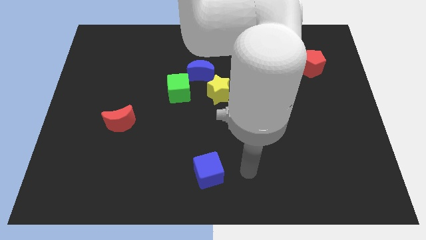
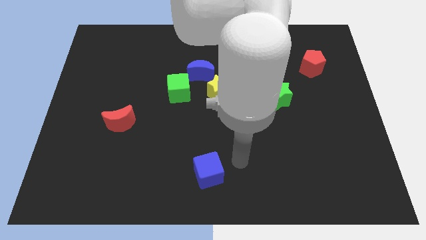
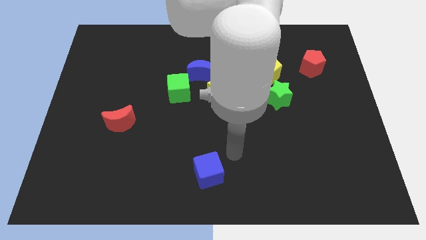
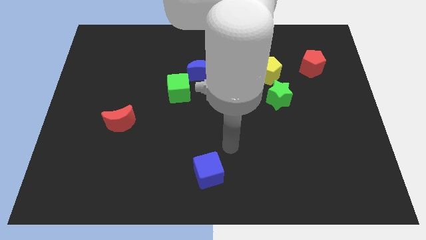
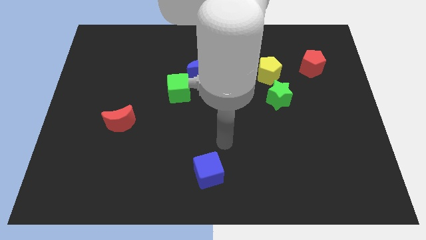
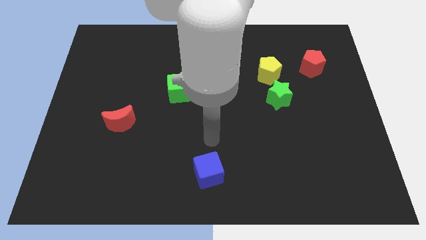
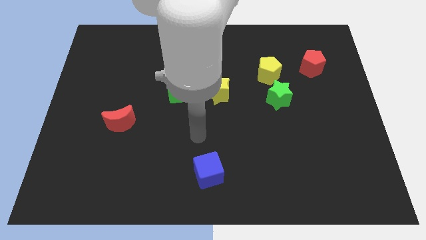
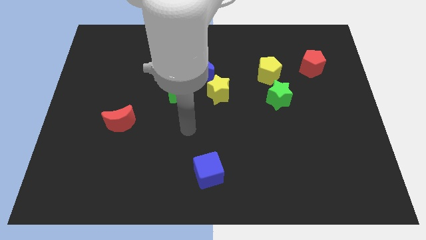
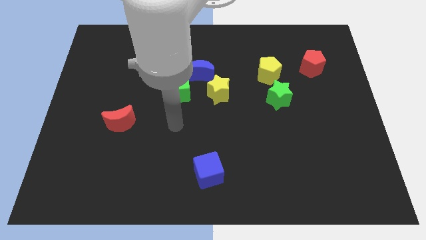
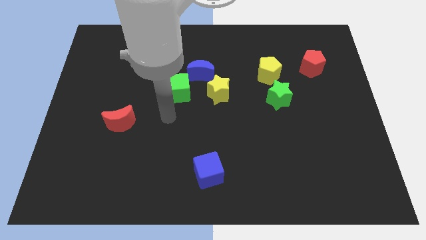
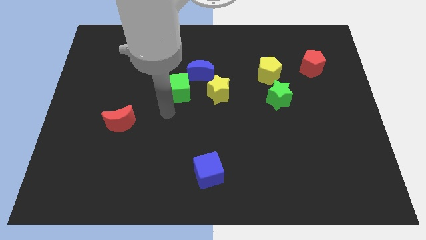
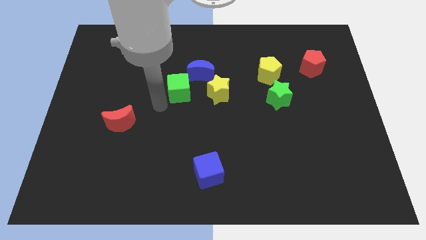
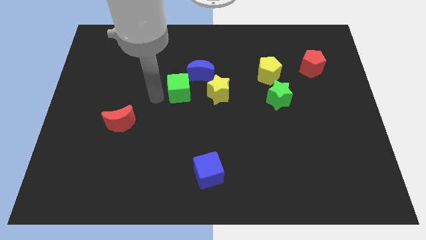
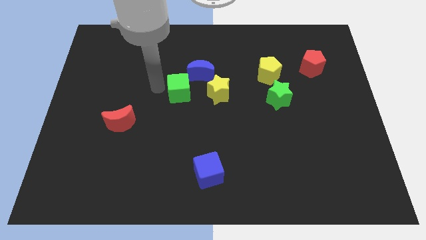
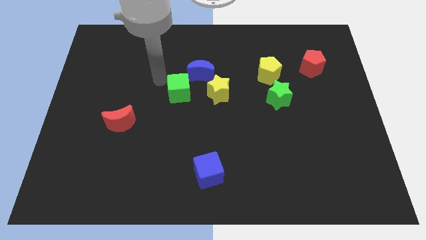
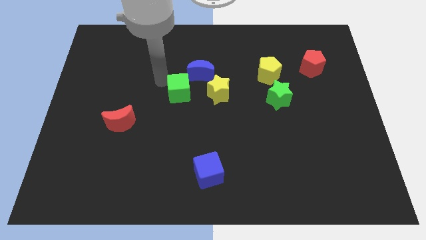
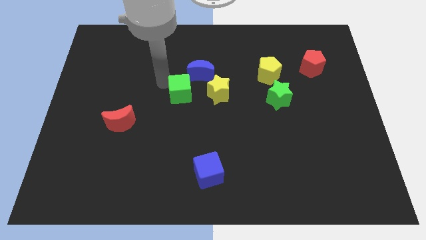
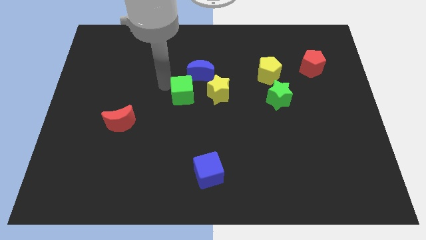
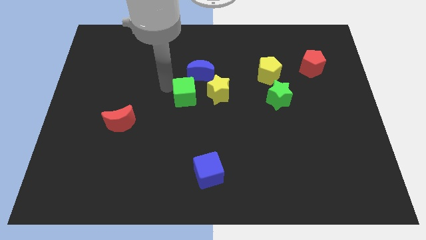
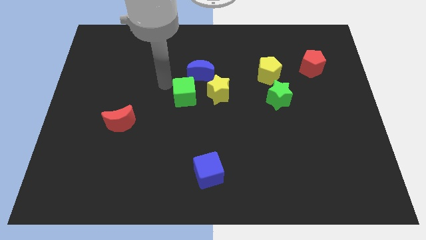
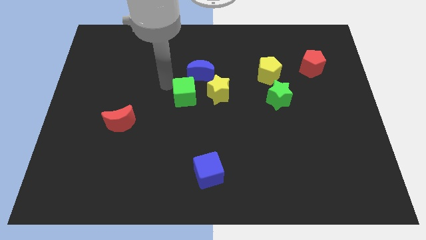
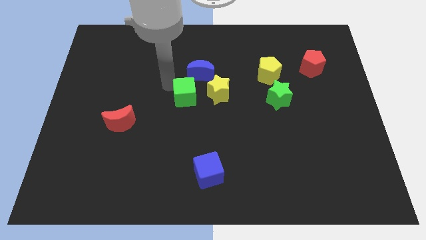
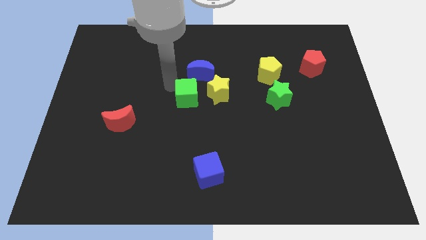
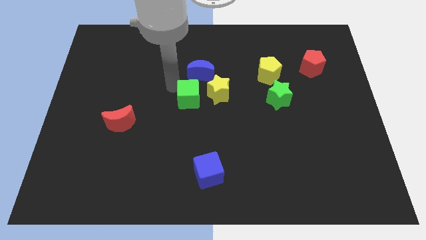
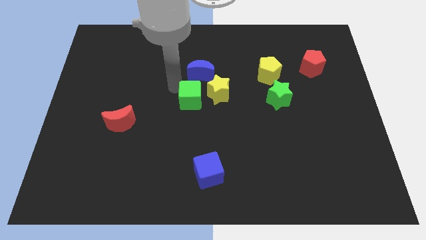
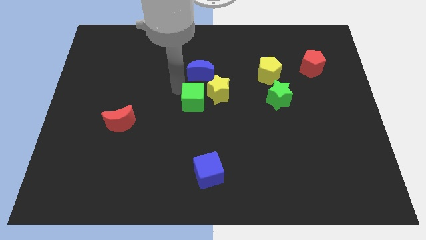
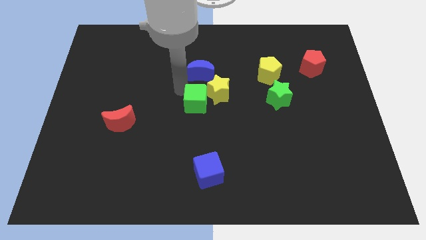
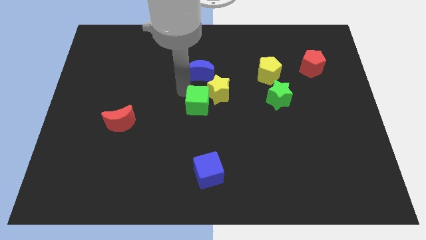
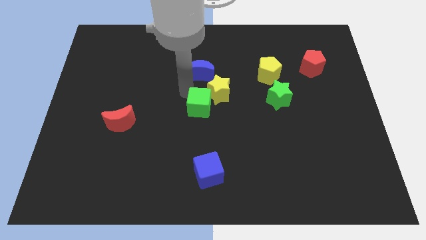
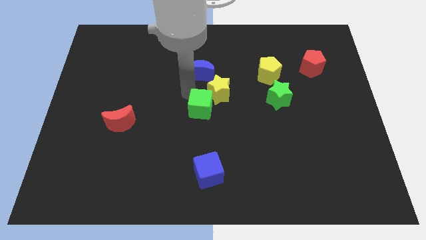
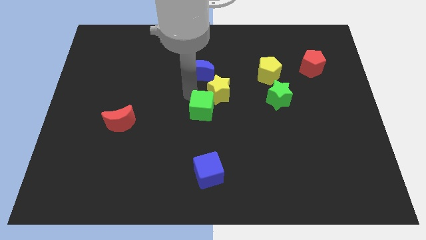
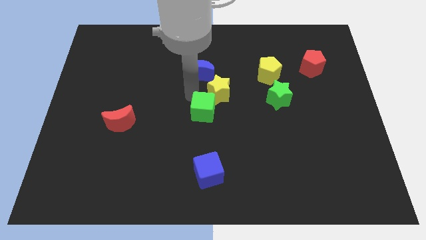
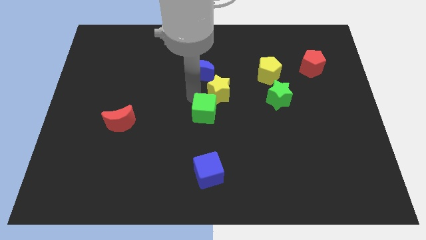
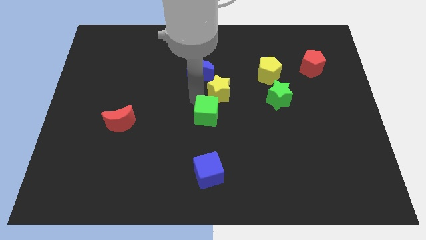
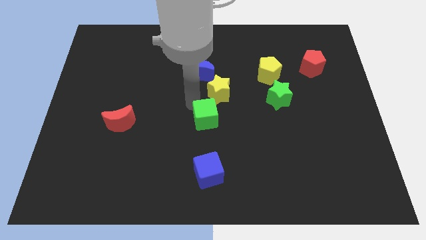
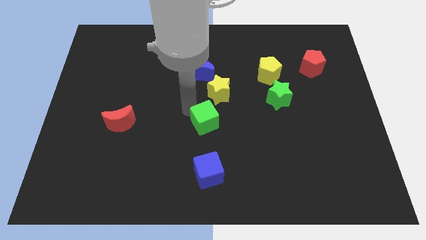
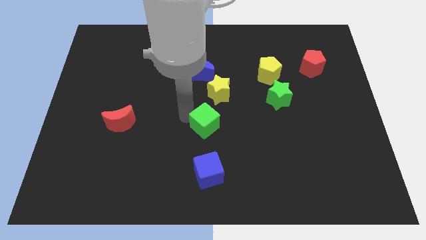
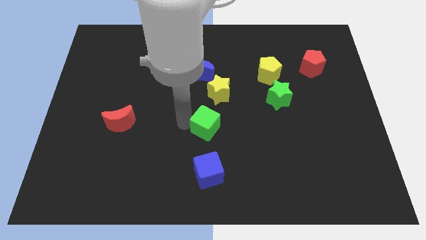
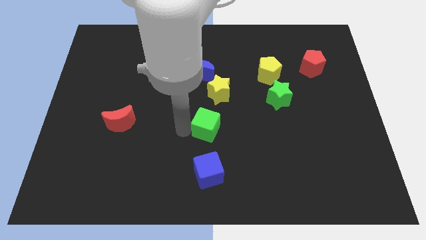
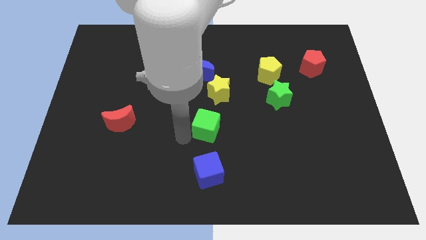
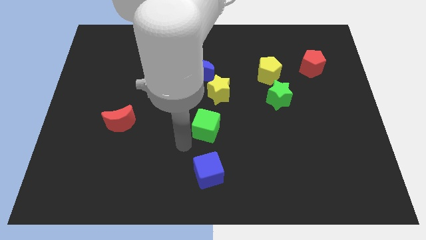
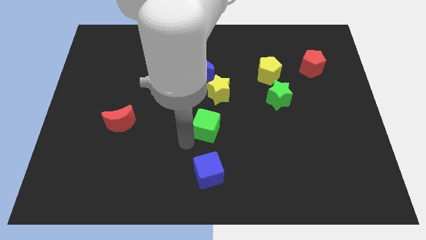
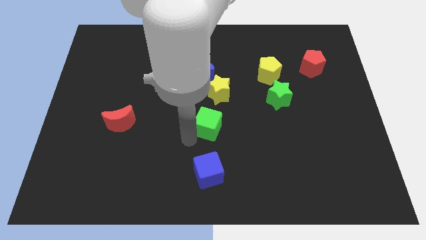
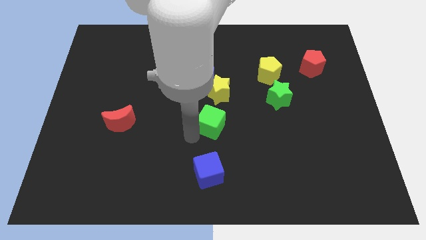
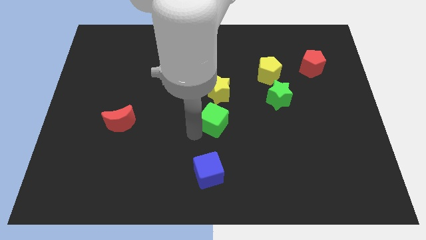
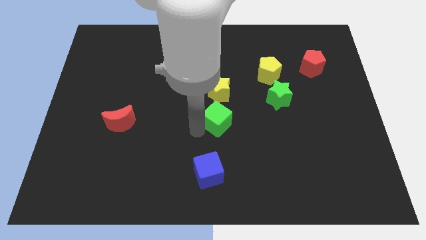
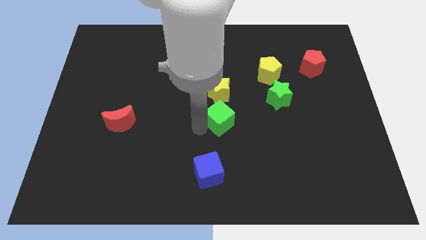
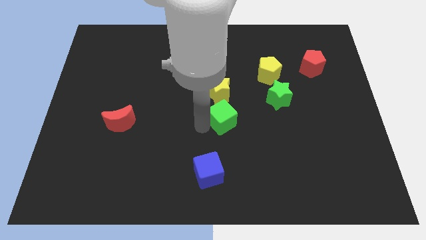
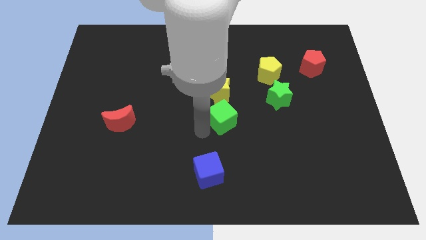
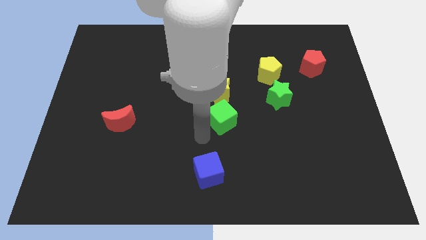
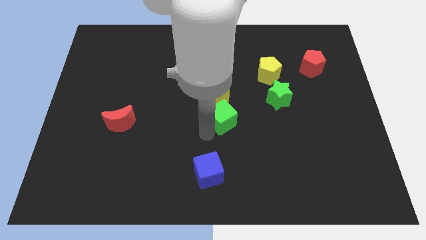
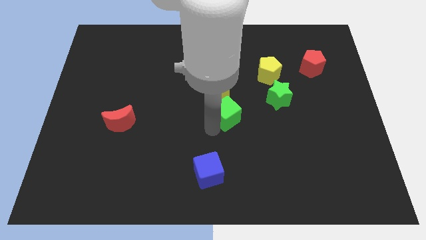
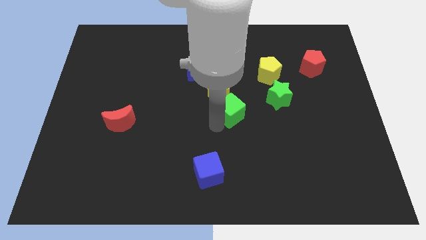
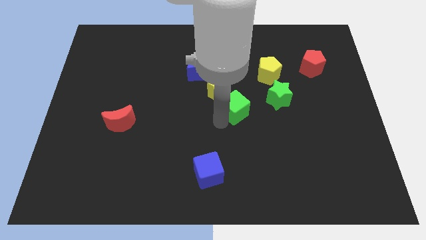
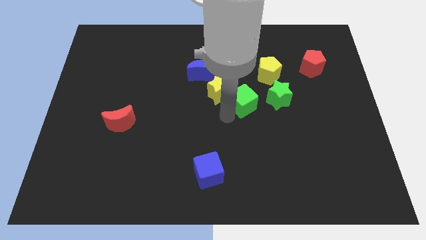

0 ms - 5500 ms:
slide the green cube right of the yellow star

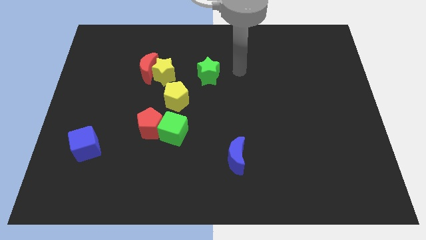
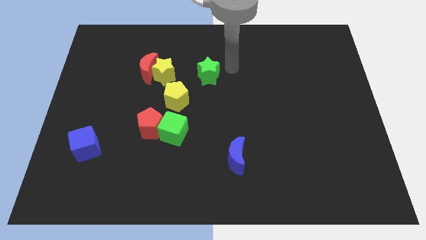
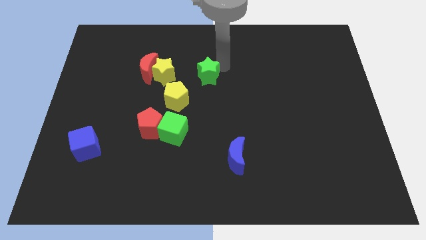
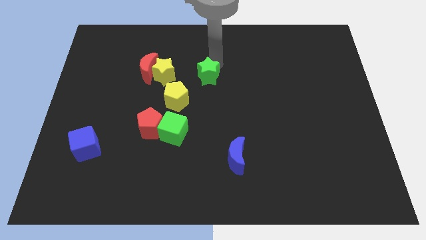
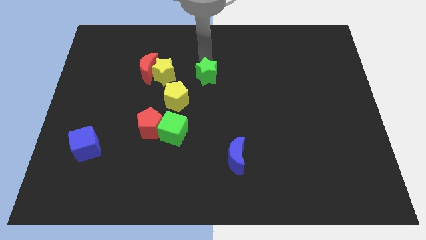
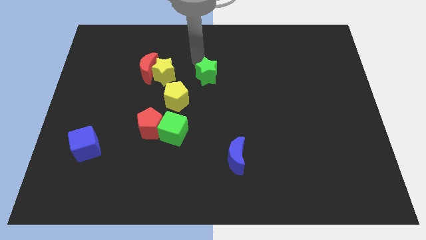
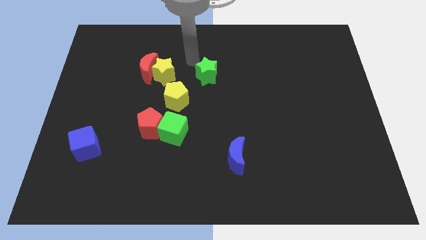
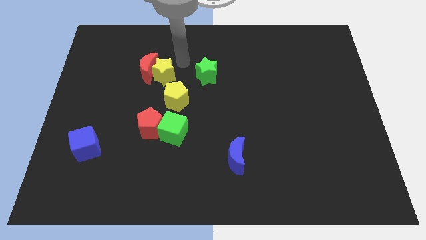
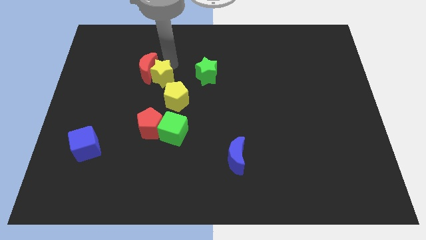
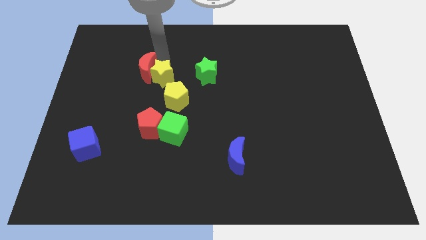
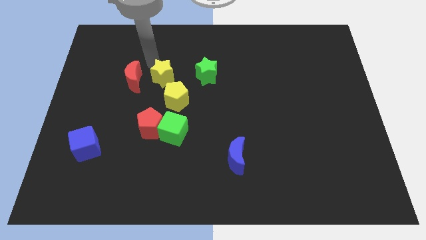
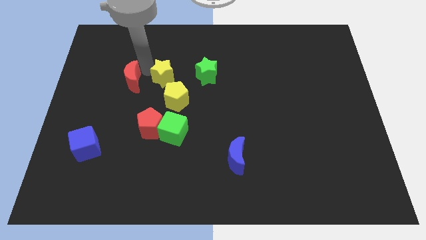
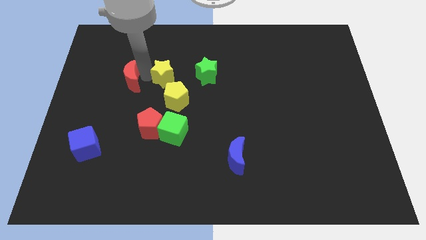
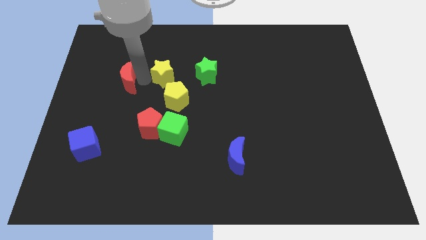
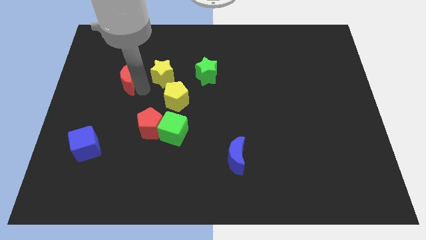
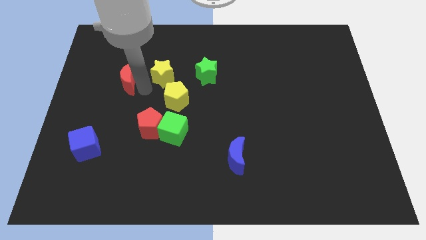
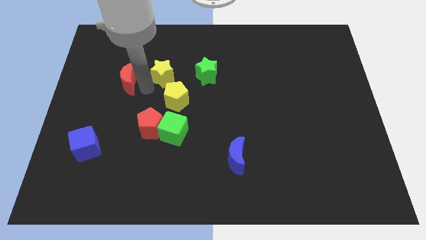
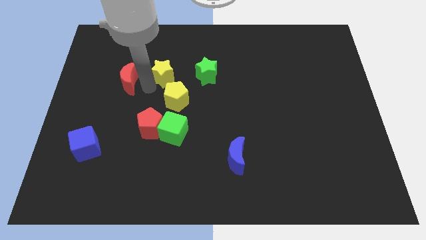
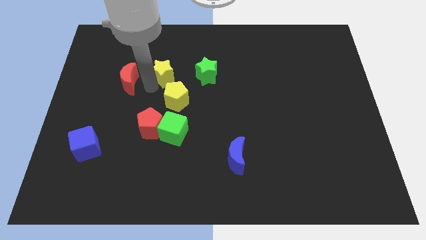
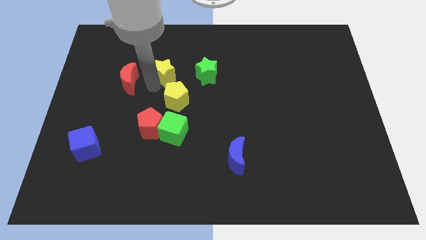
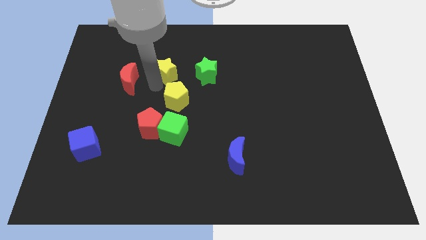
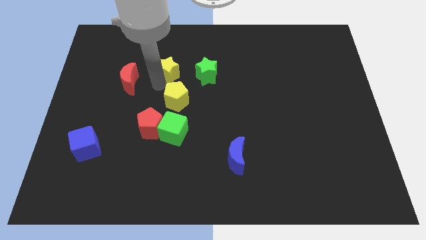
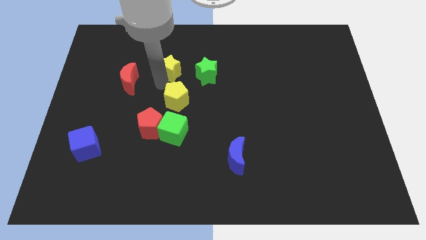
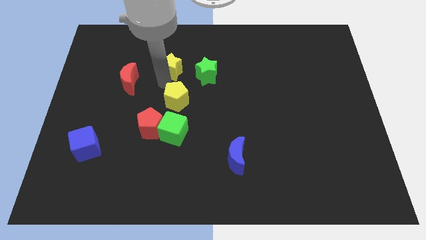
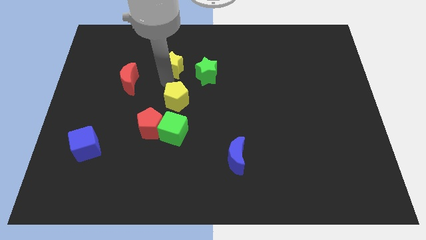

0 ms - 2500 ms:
slide the yellow star to the top left side of the green star
